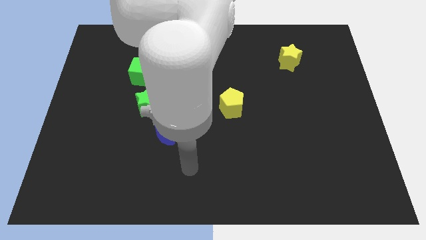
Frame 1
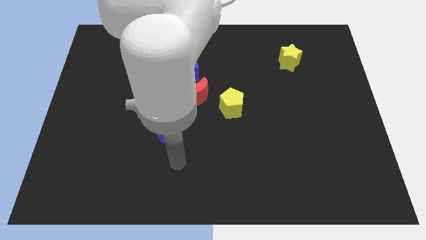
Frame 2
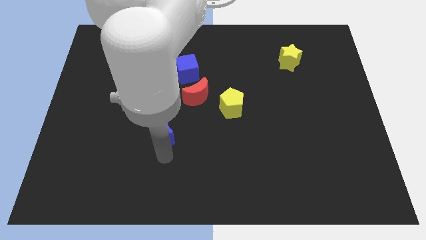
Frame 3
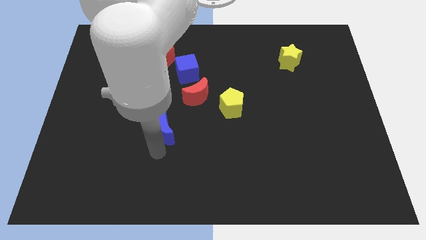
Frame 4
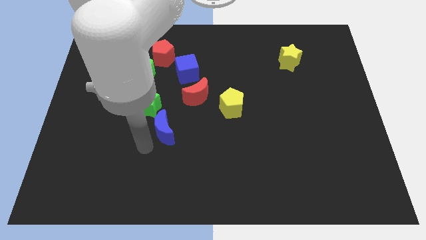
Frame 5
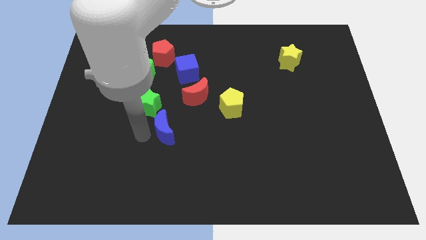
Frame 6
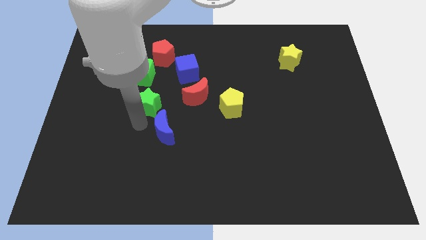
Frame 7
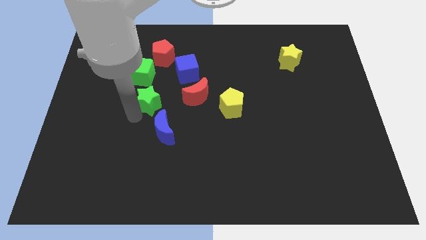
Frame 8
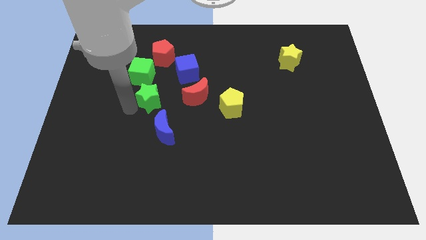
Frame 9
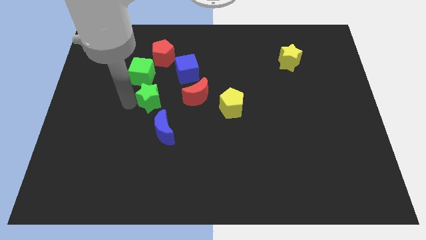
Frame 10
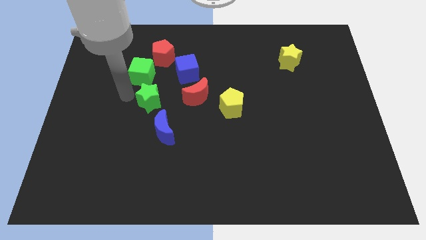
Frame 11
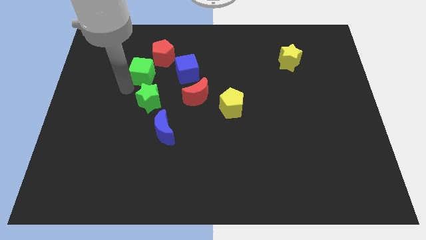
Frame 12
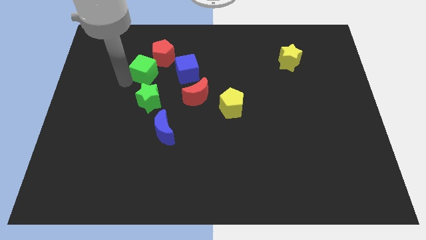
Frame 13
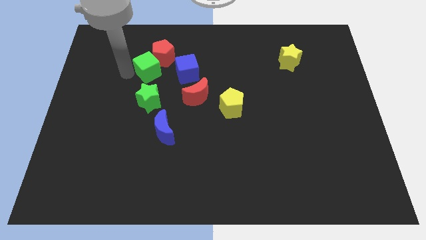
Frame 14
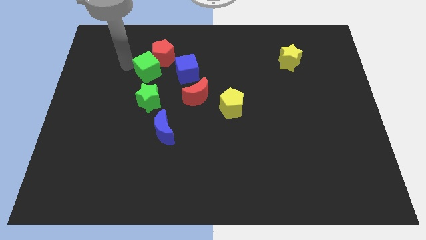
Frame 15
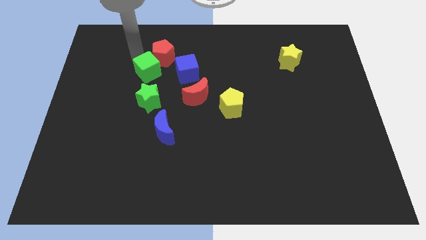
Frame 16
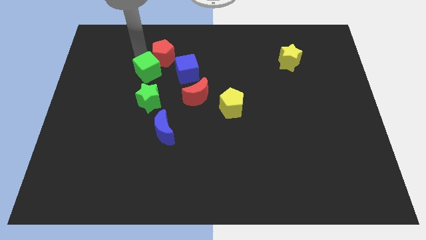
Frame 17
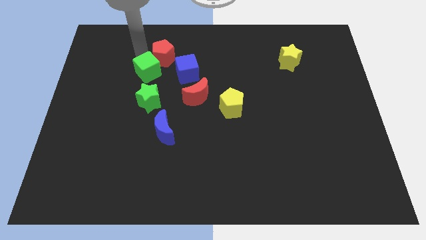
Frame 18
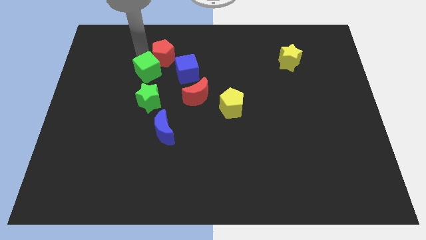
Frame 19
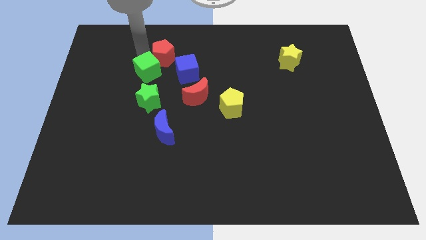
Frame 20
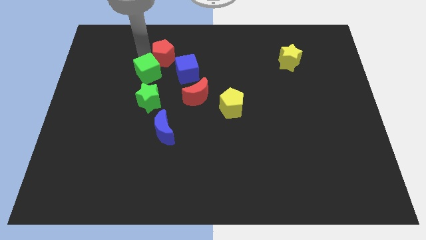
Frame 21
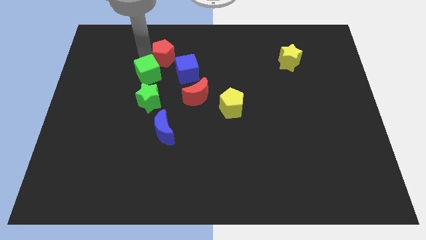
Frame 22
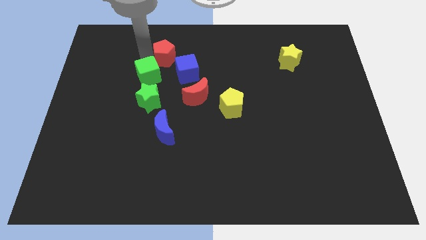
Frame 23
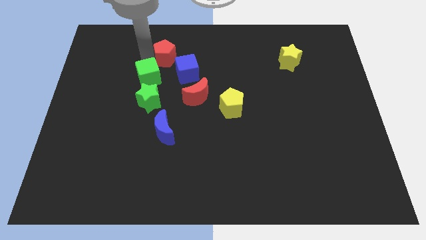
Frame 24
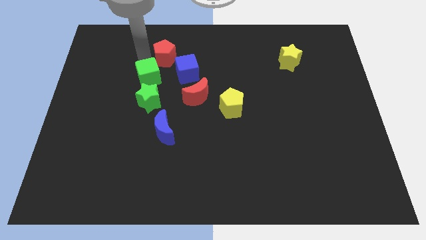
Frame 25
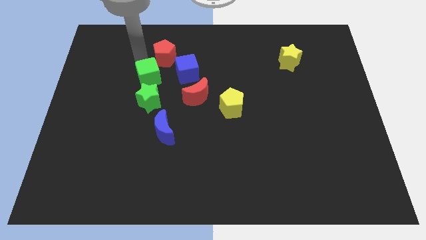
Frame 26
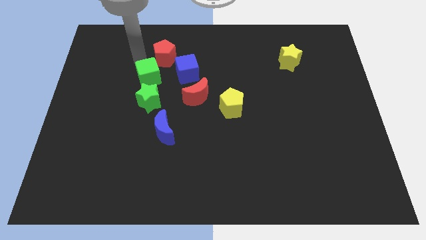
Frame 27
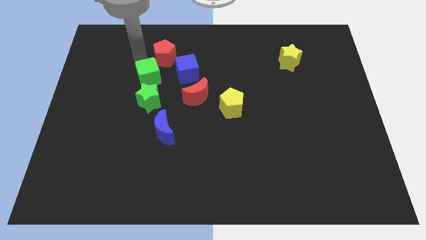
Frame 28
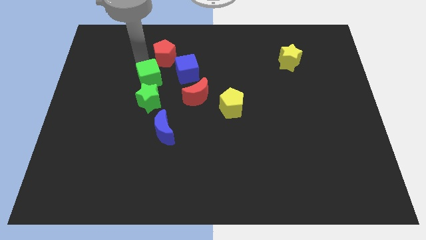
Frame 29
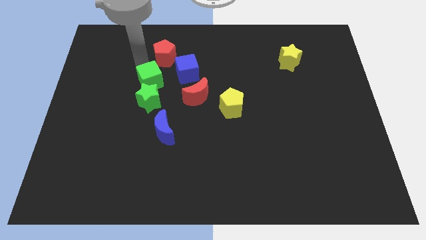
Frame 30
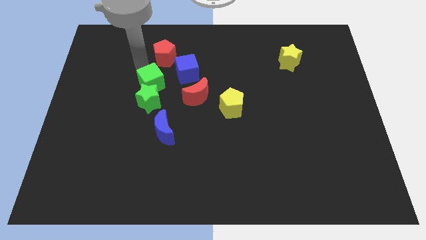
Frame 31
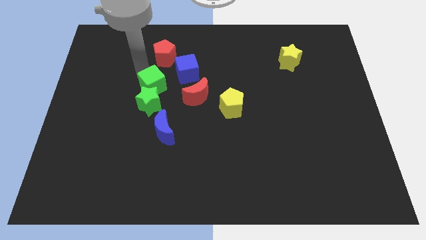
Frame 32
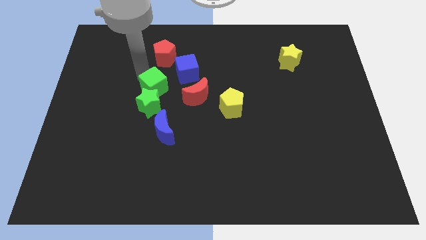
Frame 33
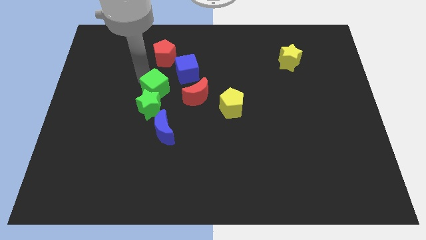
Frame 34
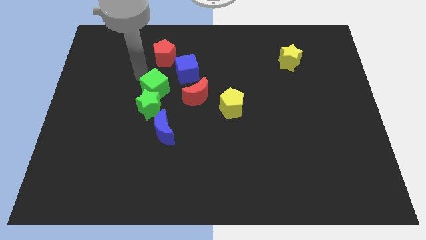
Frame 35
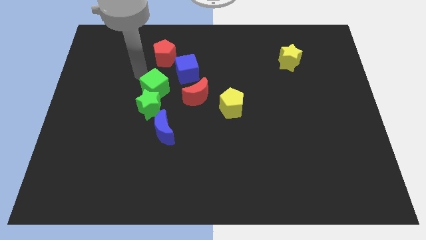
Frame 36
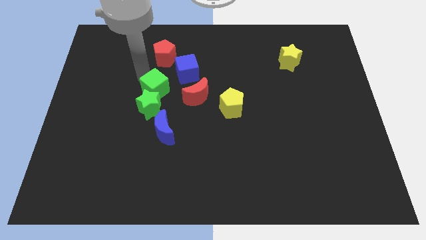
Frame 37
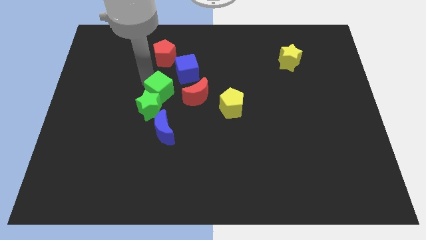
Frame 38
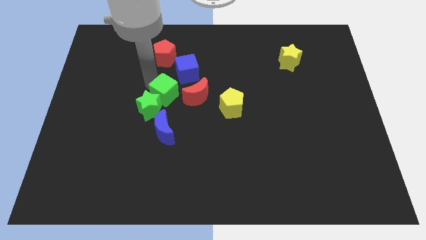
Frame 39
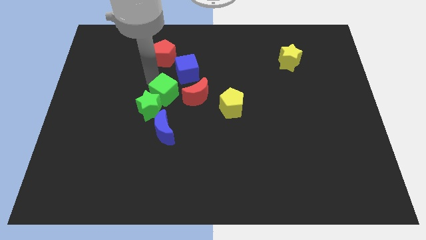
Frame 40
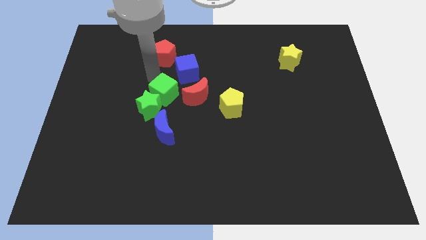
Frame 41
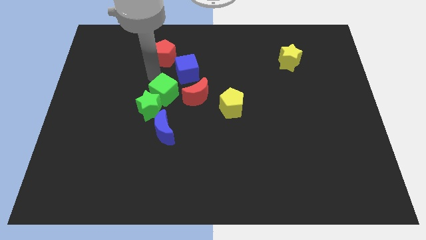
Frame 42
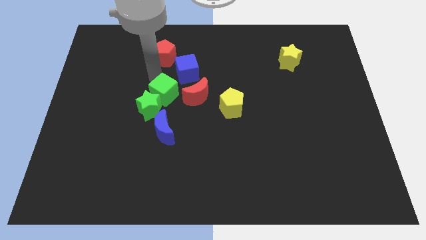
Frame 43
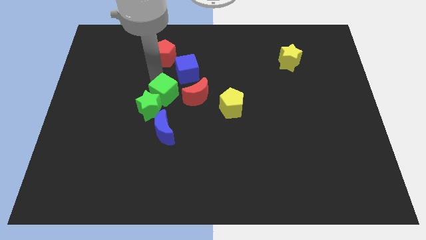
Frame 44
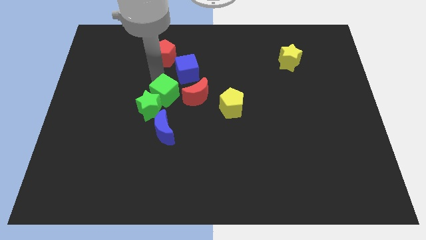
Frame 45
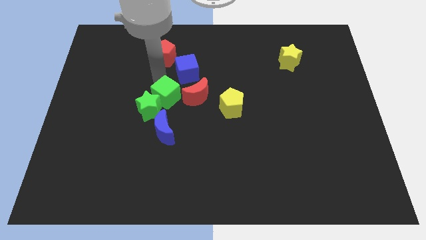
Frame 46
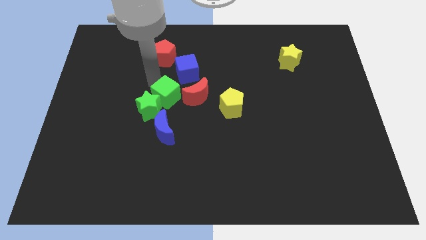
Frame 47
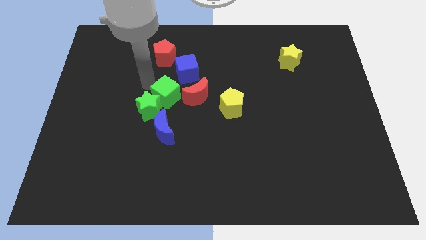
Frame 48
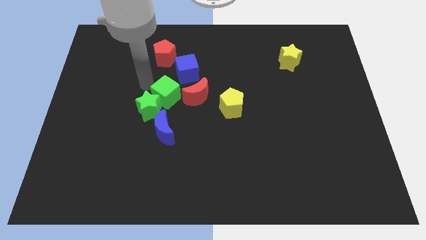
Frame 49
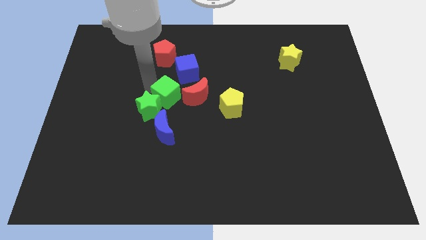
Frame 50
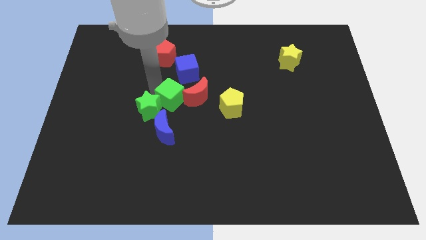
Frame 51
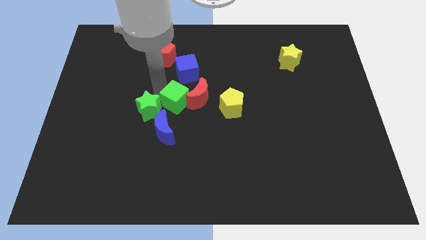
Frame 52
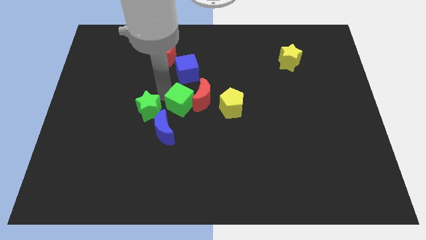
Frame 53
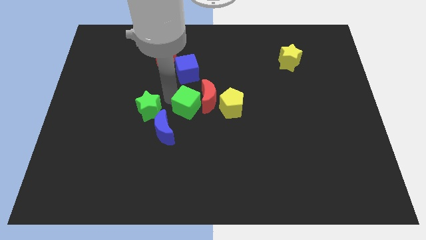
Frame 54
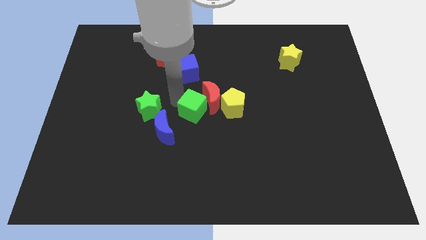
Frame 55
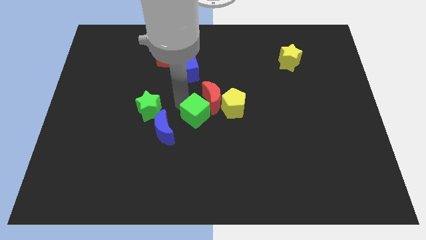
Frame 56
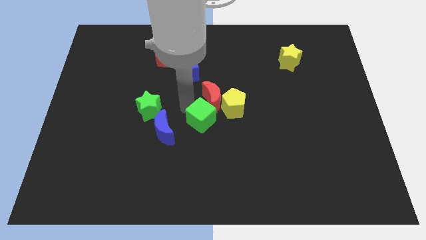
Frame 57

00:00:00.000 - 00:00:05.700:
push the green cube down and then right

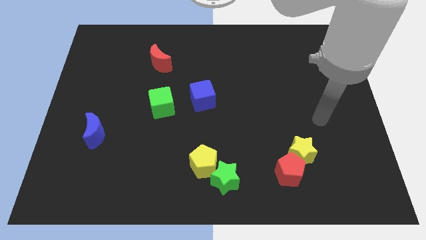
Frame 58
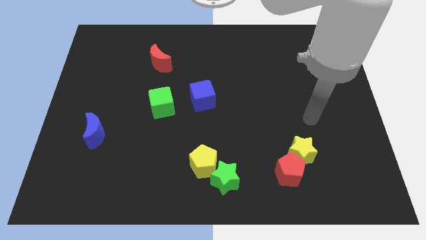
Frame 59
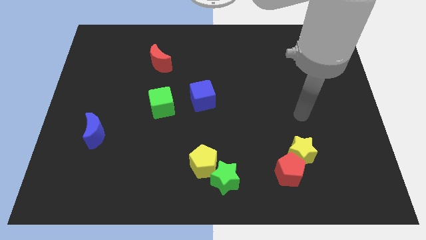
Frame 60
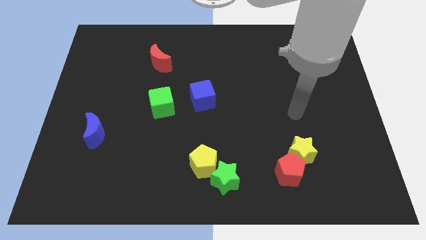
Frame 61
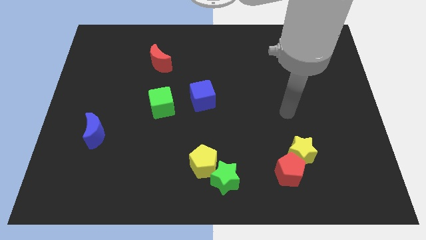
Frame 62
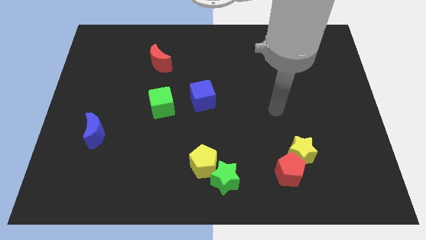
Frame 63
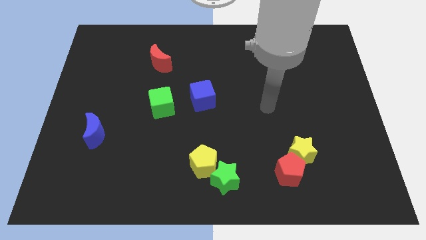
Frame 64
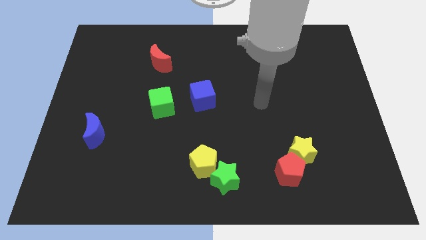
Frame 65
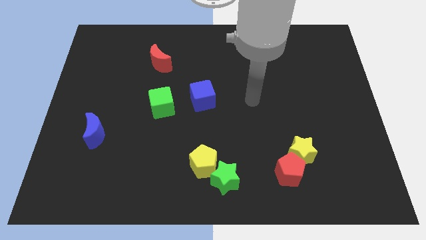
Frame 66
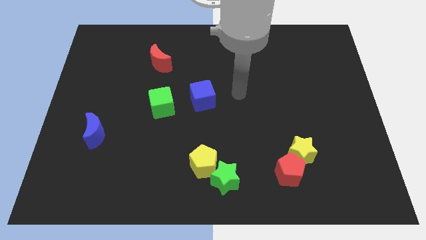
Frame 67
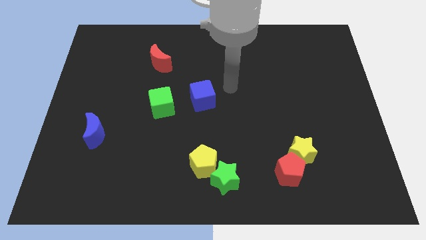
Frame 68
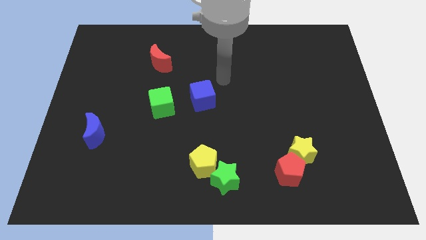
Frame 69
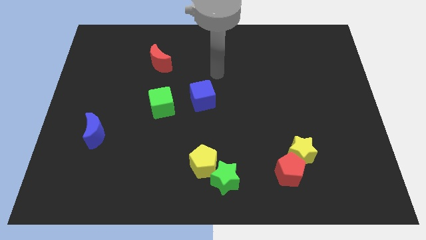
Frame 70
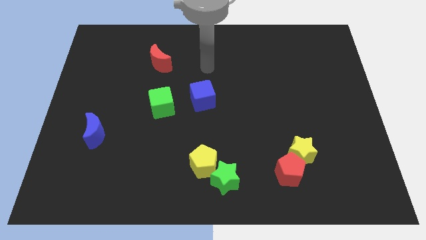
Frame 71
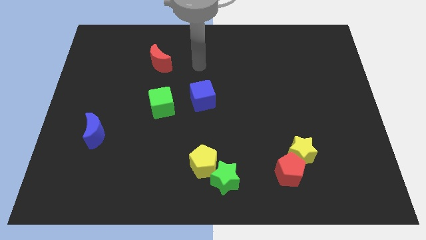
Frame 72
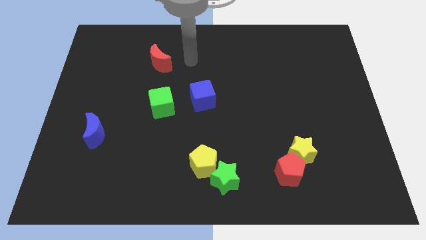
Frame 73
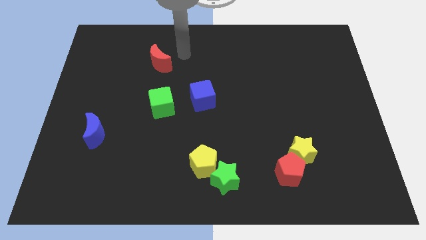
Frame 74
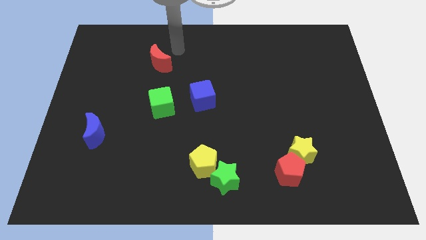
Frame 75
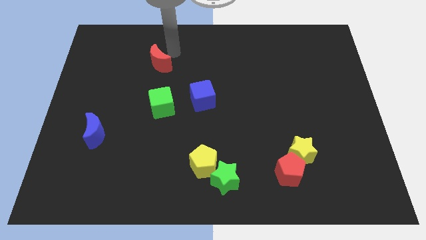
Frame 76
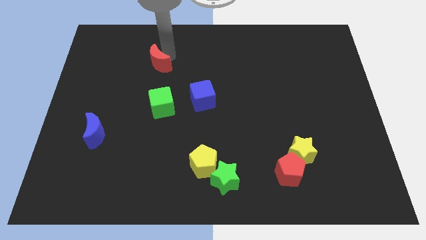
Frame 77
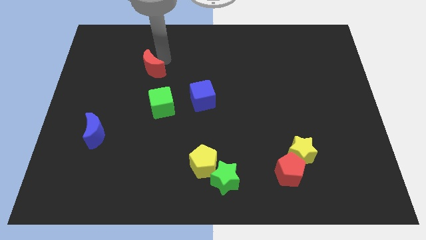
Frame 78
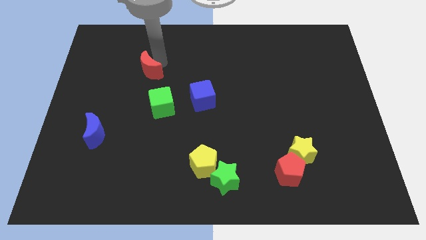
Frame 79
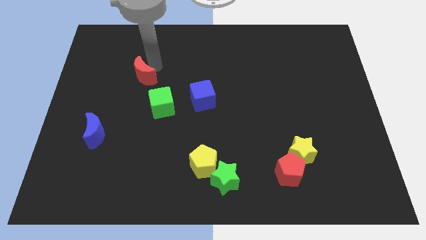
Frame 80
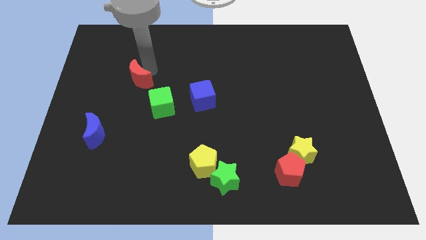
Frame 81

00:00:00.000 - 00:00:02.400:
move the red moon down and to the left diagonally a little bit

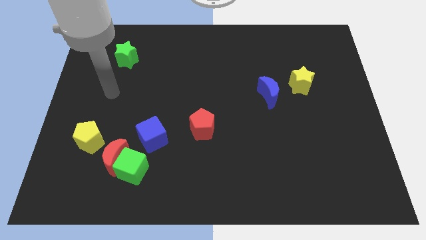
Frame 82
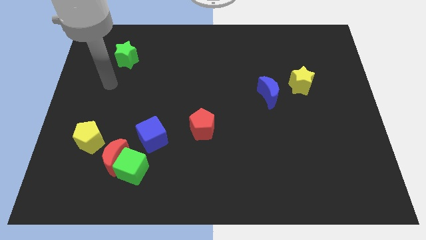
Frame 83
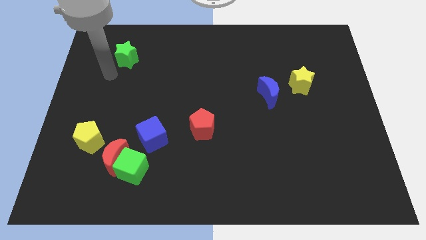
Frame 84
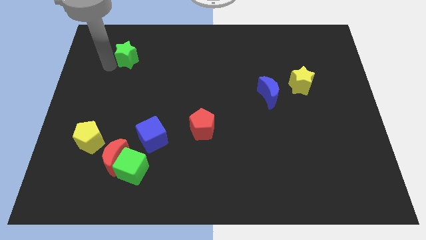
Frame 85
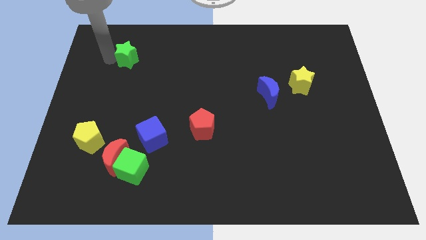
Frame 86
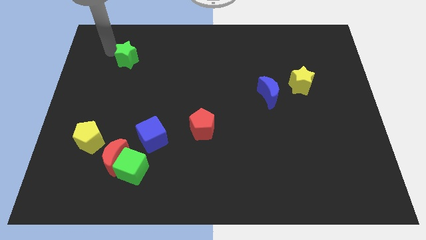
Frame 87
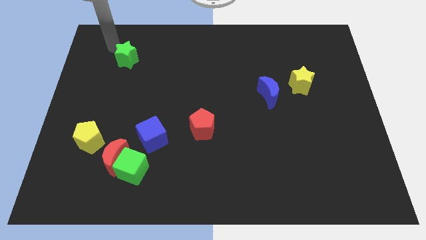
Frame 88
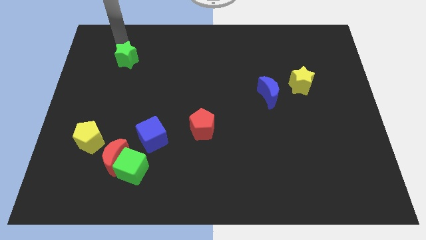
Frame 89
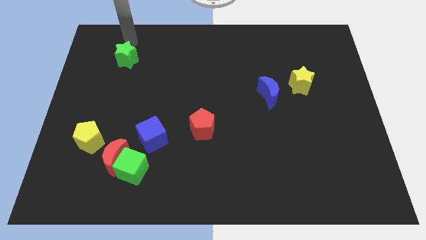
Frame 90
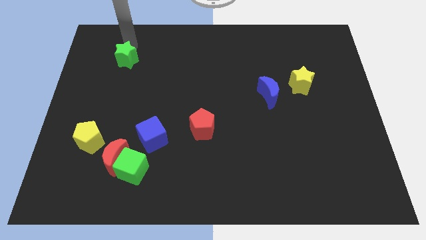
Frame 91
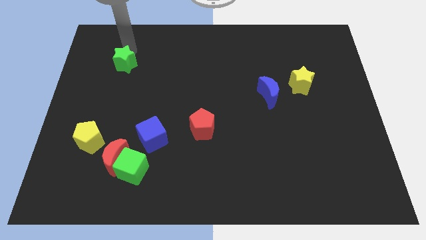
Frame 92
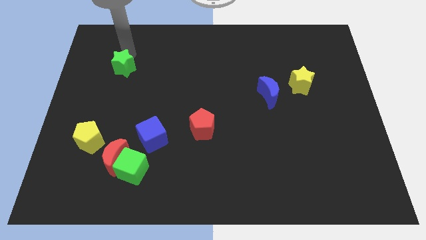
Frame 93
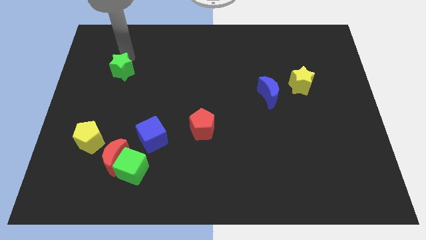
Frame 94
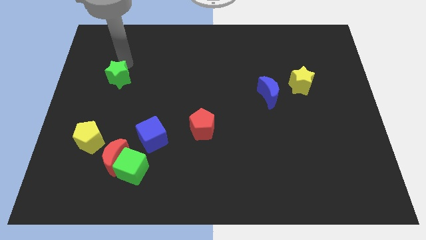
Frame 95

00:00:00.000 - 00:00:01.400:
push the green star somewhat down
